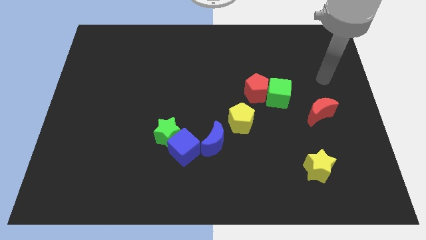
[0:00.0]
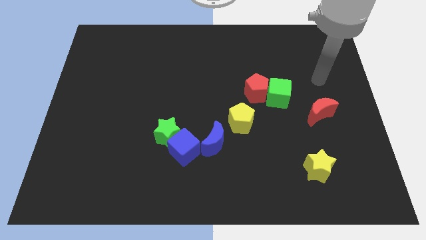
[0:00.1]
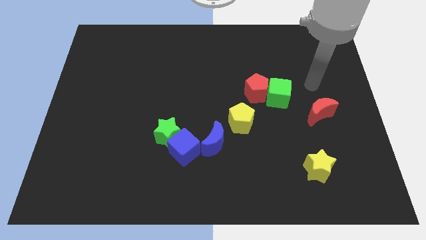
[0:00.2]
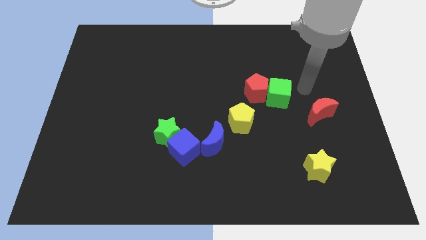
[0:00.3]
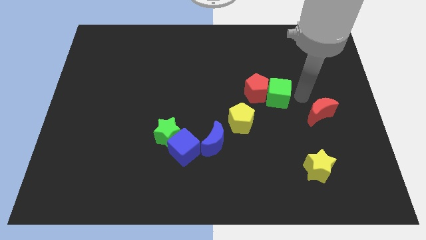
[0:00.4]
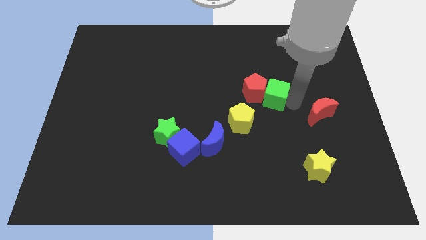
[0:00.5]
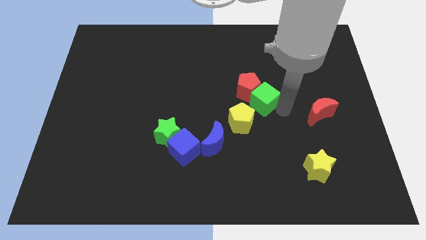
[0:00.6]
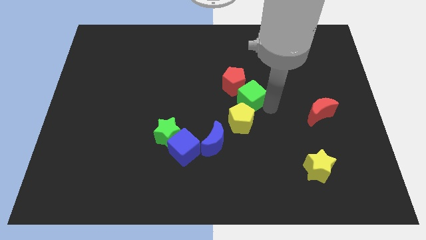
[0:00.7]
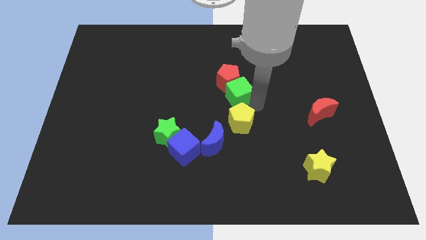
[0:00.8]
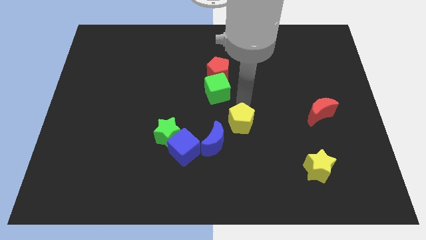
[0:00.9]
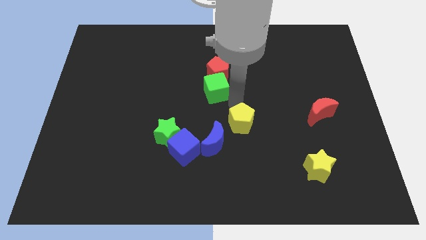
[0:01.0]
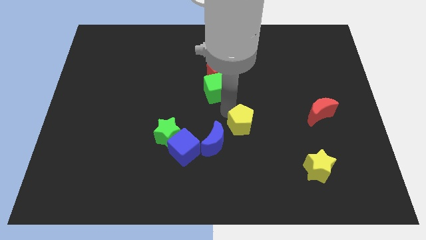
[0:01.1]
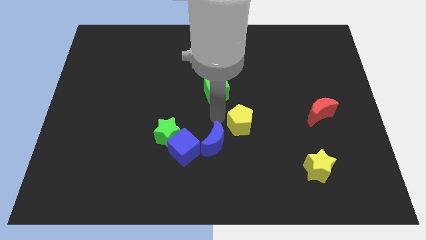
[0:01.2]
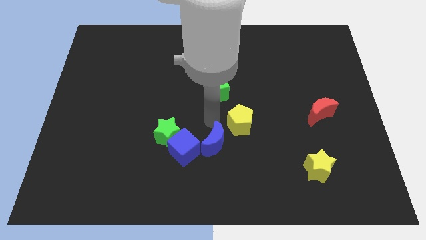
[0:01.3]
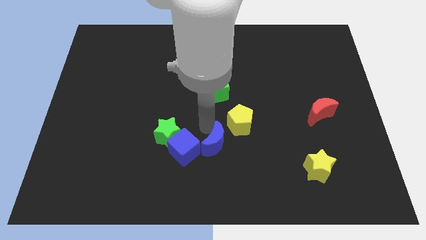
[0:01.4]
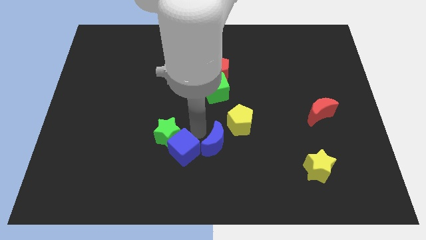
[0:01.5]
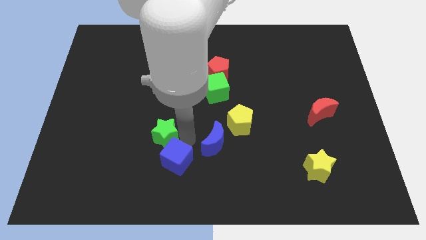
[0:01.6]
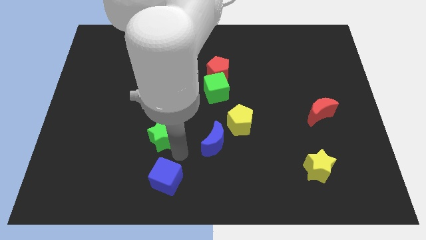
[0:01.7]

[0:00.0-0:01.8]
separate the green star from the blue cube

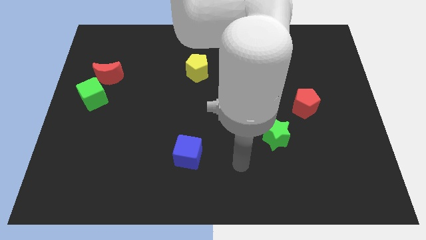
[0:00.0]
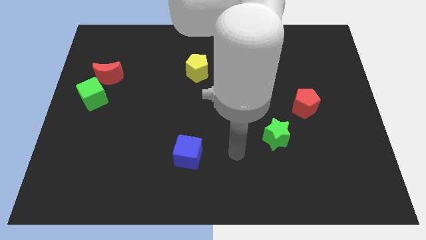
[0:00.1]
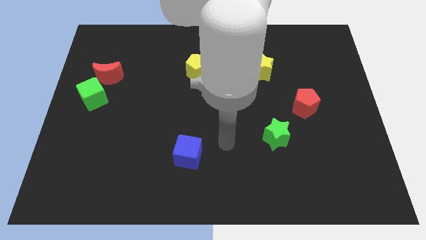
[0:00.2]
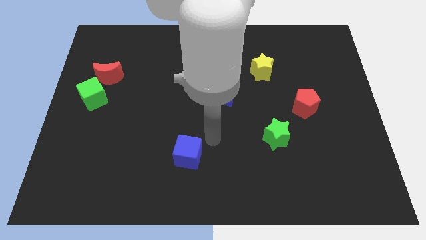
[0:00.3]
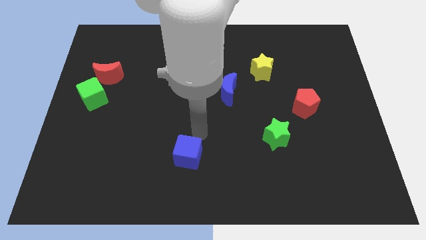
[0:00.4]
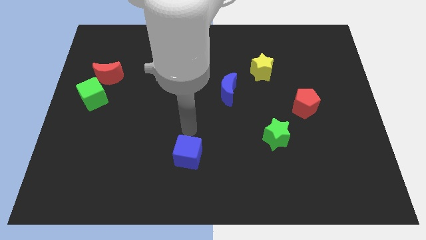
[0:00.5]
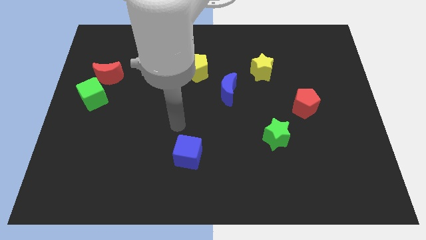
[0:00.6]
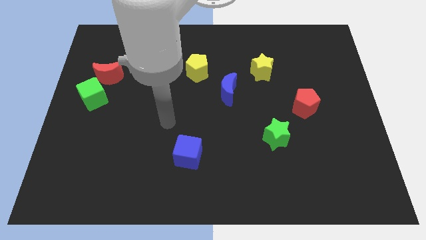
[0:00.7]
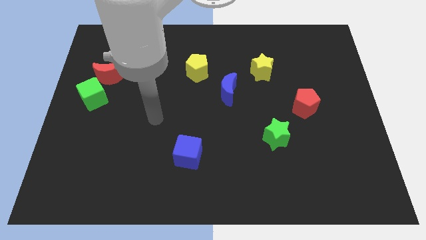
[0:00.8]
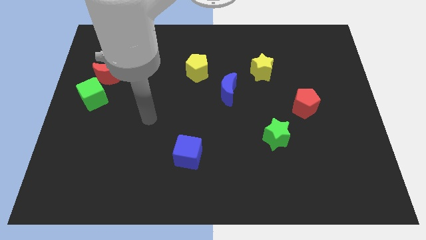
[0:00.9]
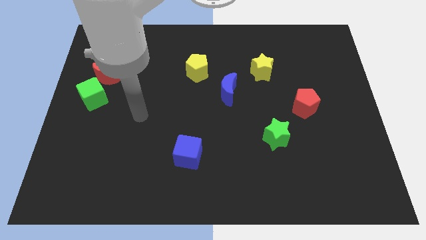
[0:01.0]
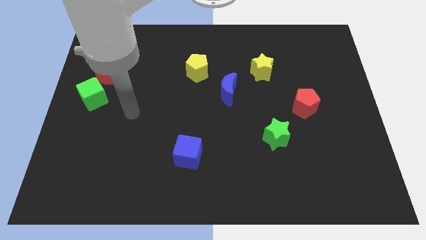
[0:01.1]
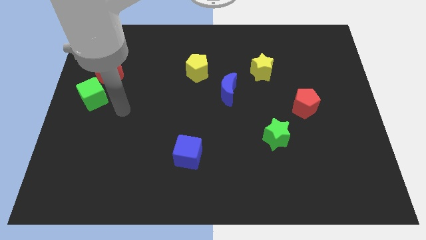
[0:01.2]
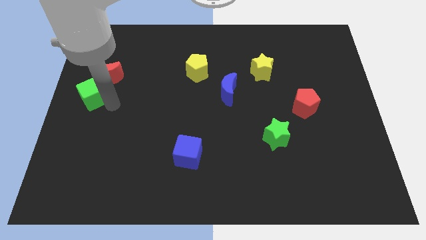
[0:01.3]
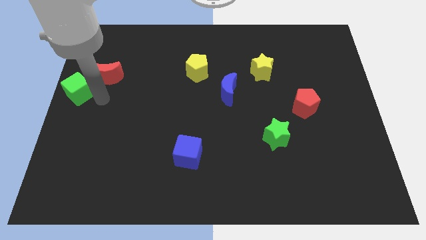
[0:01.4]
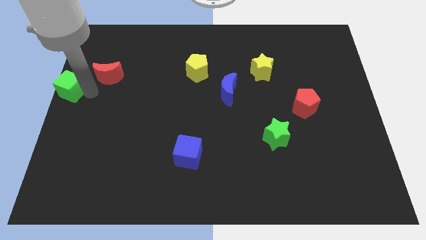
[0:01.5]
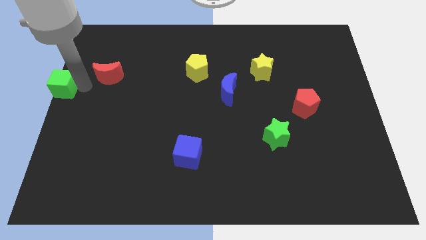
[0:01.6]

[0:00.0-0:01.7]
pull the red moon apart from the green cube

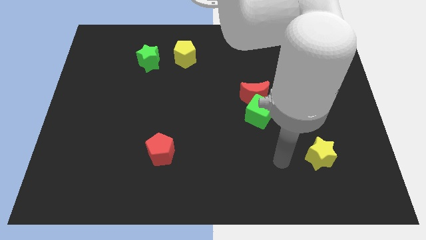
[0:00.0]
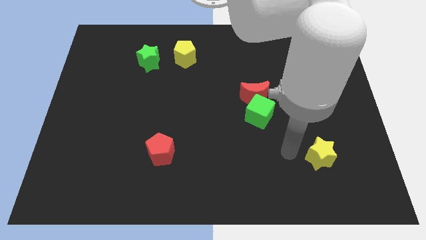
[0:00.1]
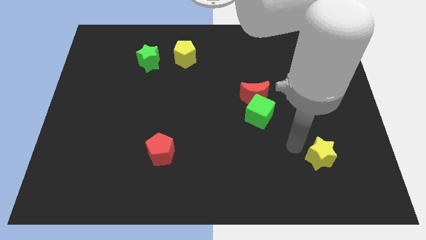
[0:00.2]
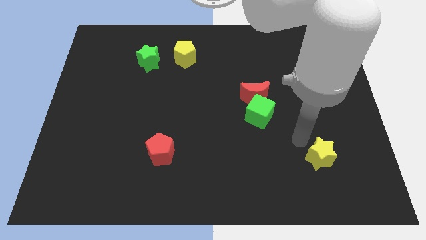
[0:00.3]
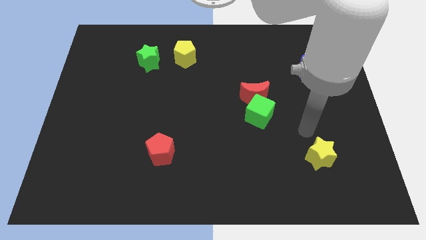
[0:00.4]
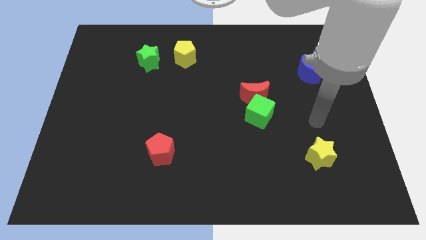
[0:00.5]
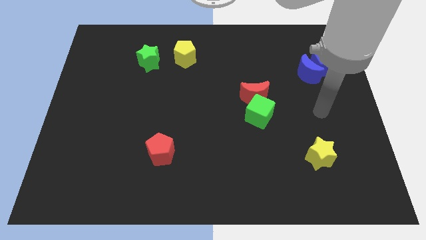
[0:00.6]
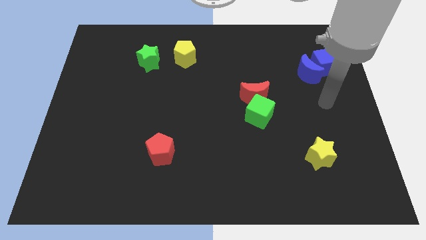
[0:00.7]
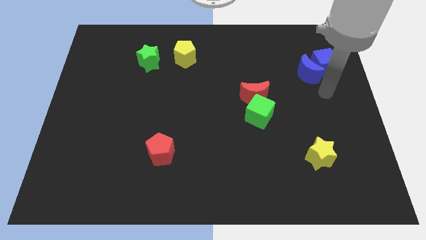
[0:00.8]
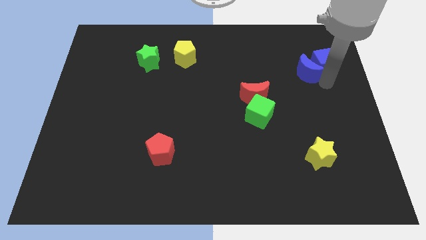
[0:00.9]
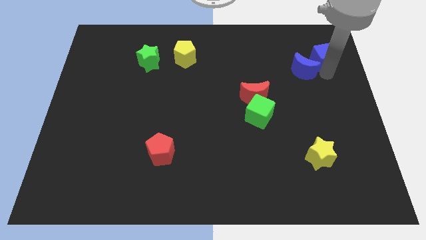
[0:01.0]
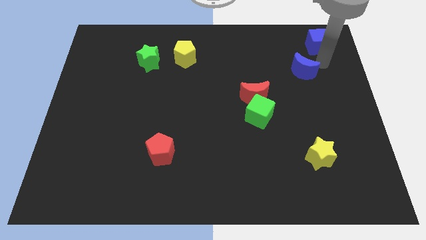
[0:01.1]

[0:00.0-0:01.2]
move the blue moon away from the blue cube

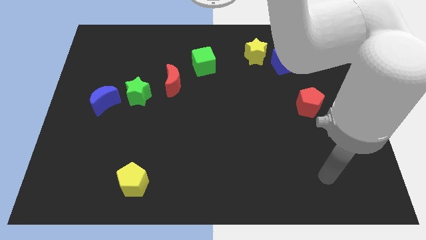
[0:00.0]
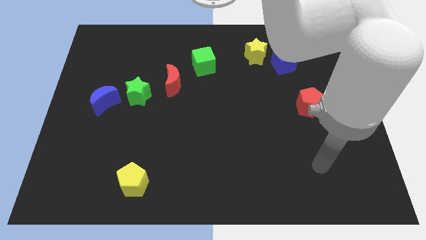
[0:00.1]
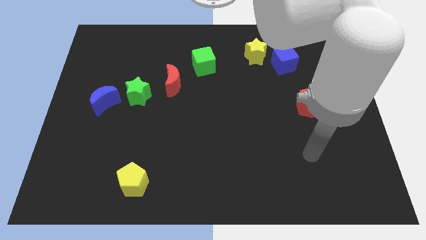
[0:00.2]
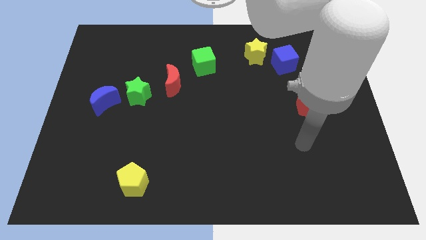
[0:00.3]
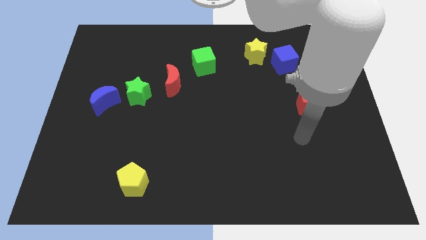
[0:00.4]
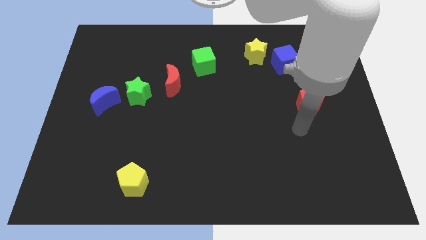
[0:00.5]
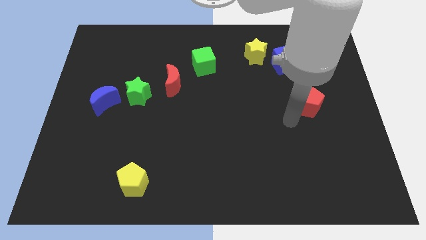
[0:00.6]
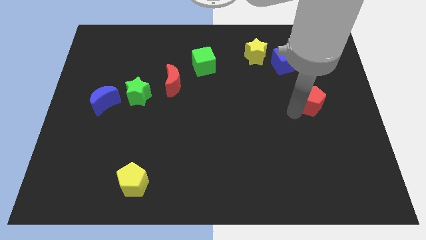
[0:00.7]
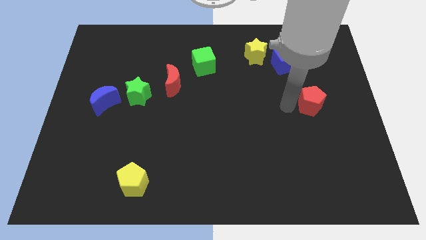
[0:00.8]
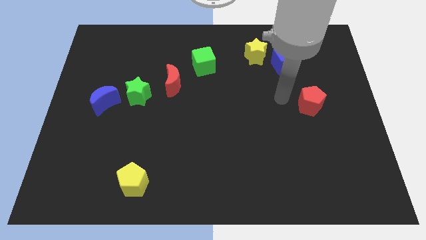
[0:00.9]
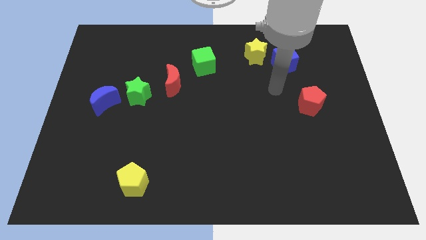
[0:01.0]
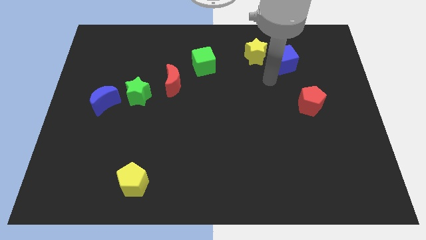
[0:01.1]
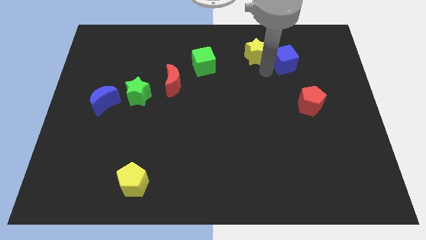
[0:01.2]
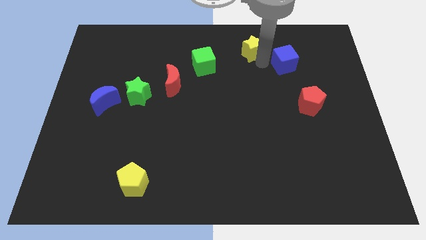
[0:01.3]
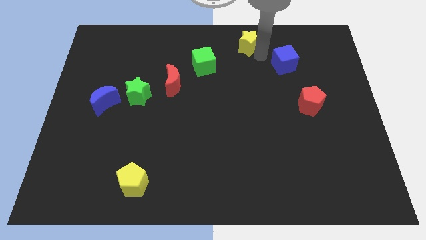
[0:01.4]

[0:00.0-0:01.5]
move the blue cube away from the yellow star

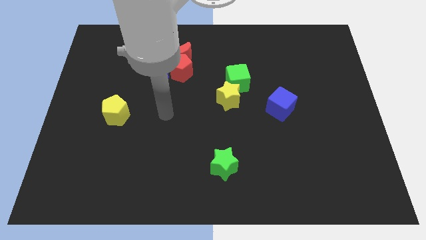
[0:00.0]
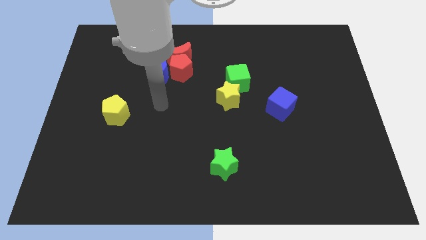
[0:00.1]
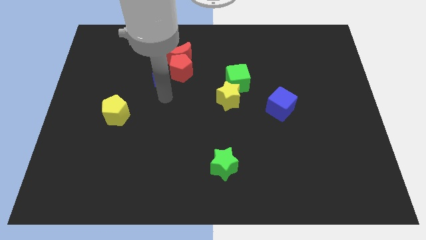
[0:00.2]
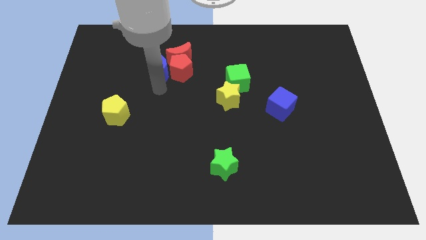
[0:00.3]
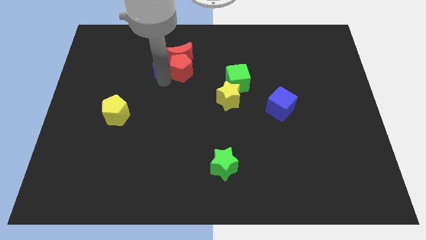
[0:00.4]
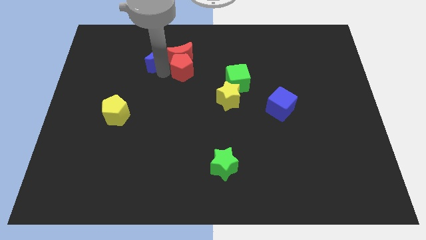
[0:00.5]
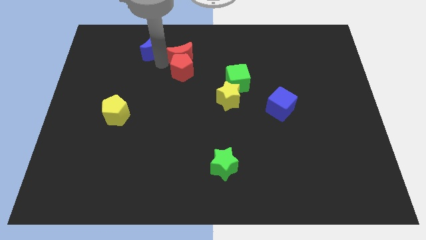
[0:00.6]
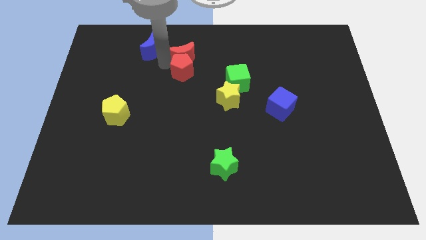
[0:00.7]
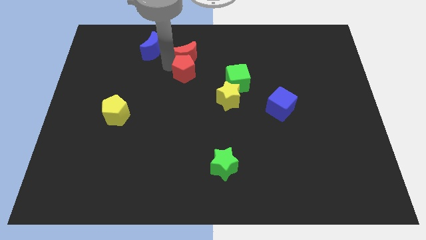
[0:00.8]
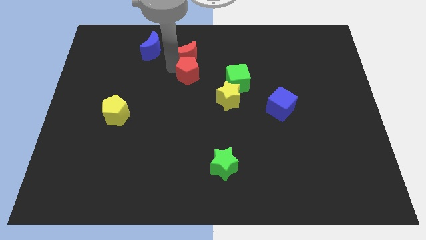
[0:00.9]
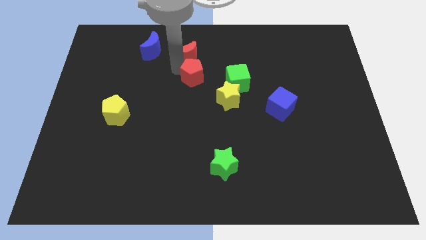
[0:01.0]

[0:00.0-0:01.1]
move the red pentagon away from the red moon and blue moon

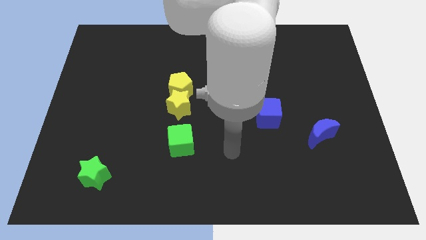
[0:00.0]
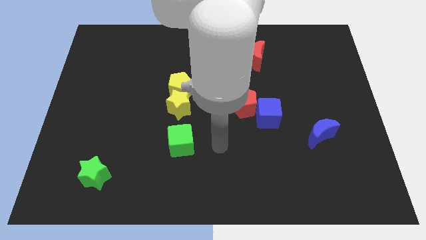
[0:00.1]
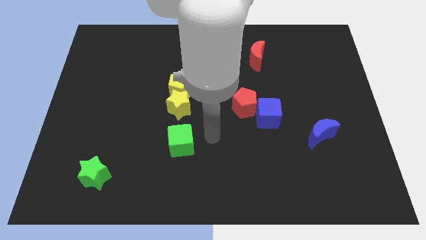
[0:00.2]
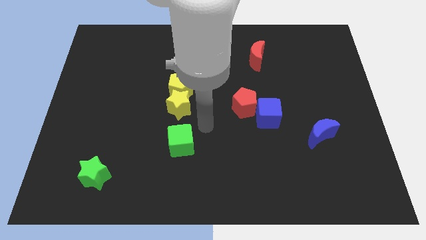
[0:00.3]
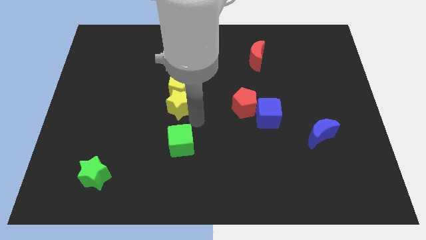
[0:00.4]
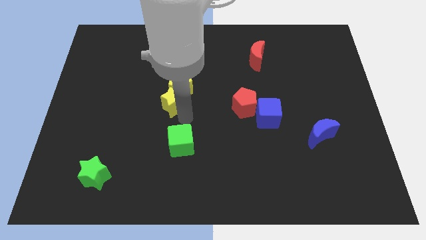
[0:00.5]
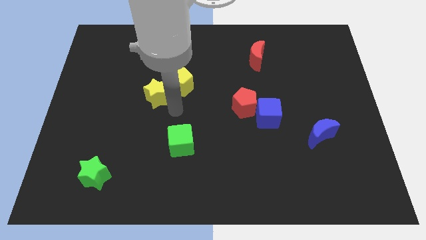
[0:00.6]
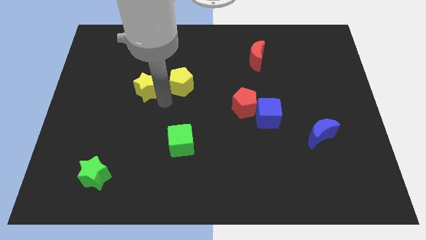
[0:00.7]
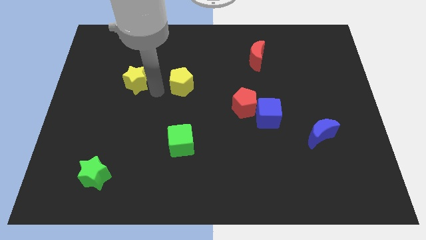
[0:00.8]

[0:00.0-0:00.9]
separate the yellow pentagon from the yellow star

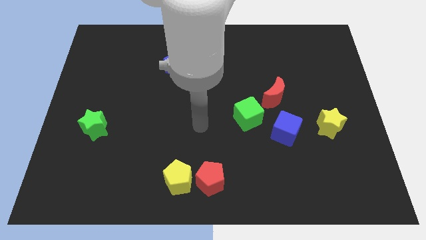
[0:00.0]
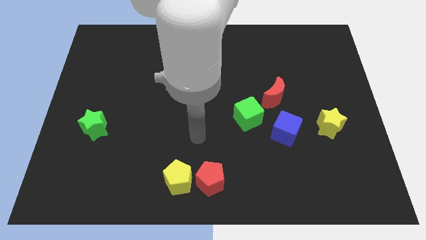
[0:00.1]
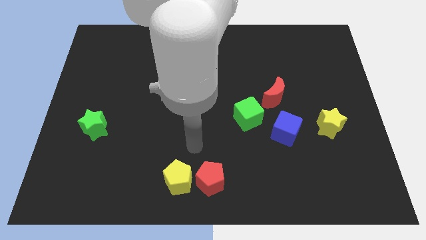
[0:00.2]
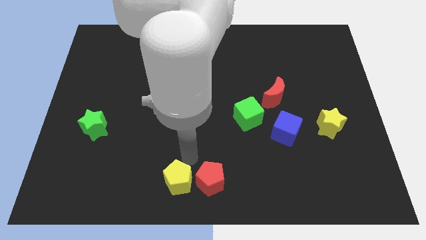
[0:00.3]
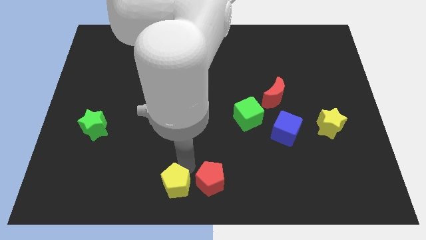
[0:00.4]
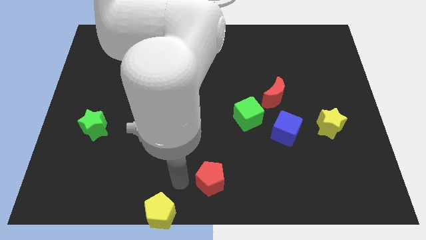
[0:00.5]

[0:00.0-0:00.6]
pull the red pentagon apart from the yellow pentagon

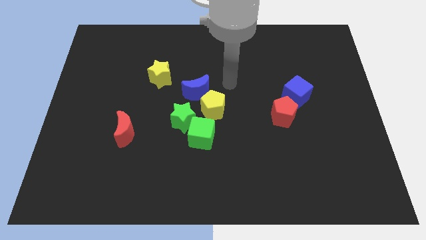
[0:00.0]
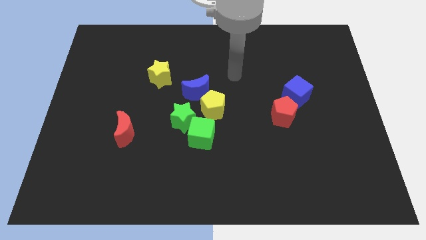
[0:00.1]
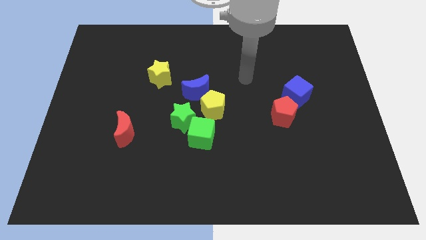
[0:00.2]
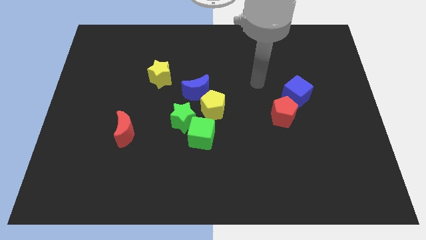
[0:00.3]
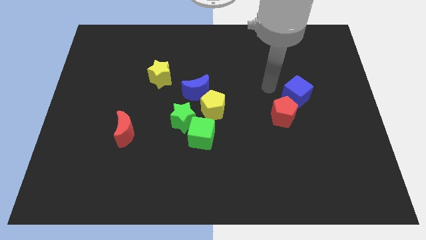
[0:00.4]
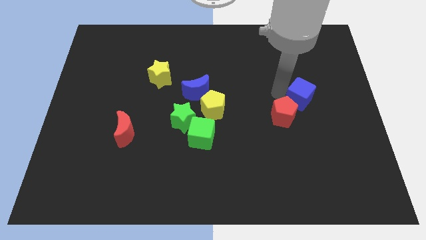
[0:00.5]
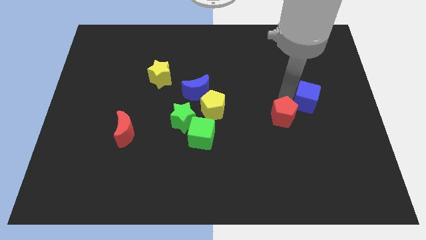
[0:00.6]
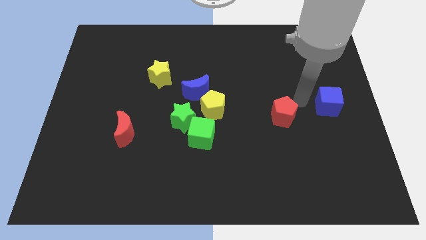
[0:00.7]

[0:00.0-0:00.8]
move the red pentagon away from the blue cube
